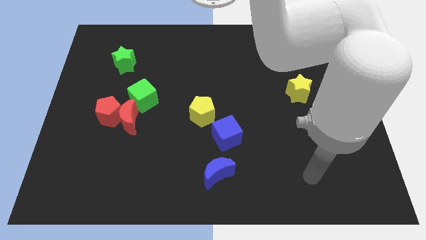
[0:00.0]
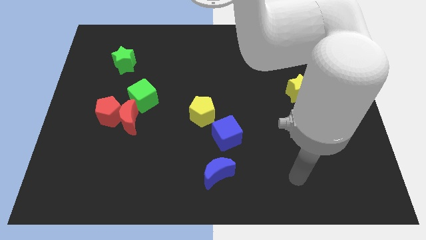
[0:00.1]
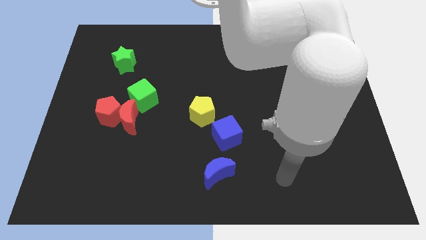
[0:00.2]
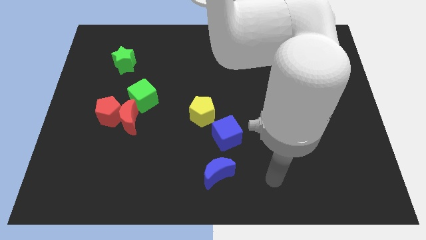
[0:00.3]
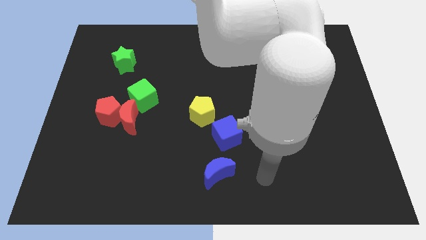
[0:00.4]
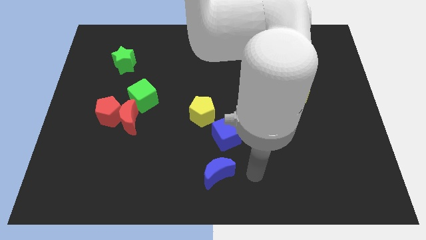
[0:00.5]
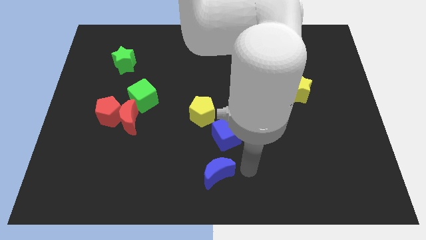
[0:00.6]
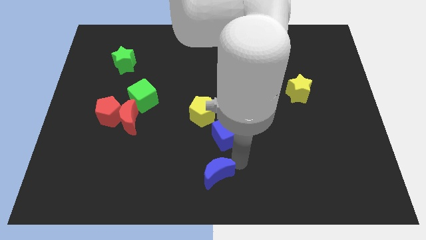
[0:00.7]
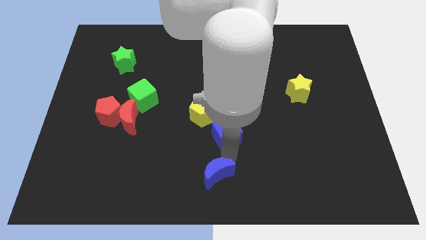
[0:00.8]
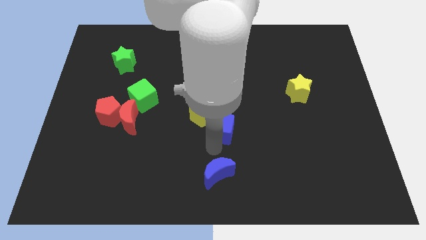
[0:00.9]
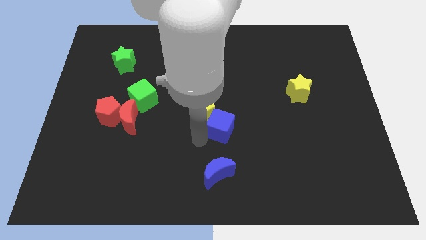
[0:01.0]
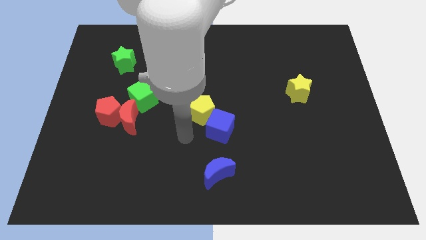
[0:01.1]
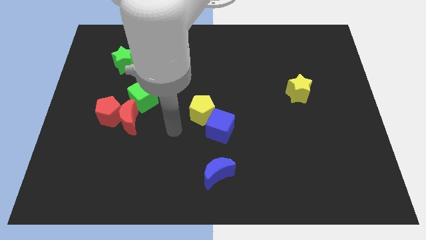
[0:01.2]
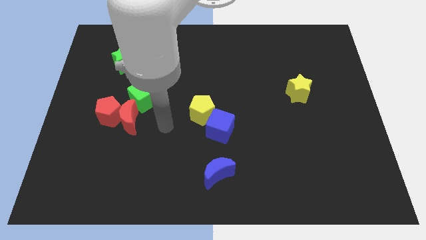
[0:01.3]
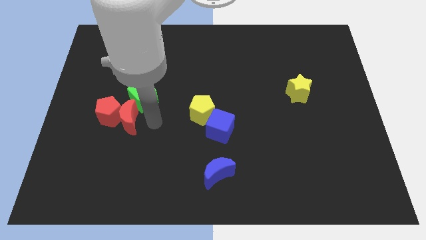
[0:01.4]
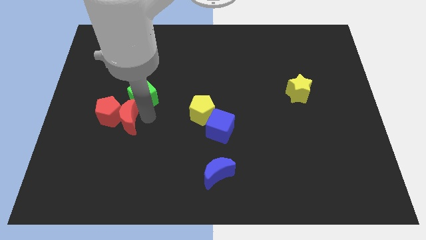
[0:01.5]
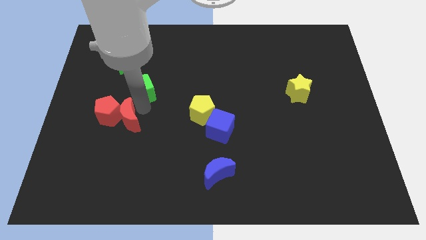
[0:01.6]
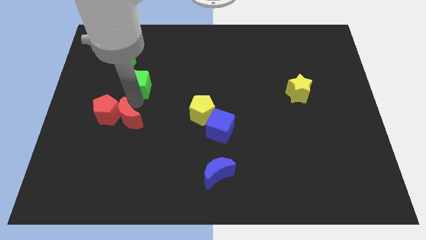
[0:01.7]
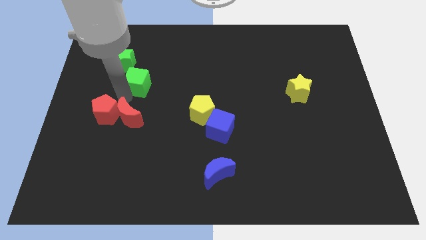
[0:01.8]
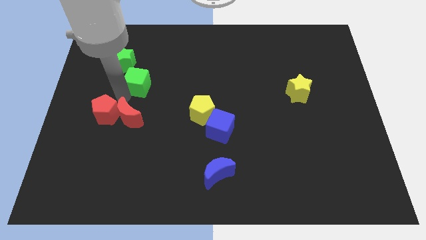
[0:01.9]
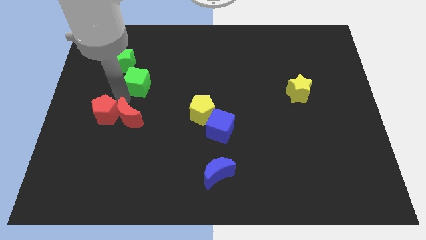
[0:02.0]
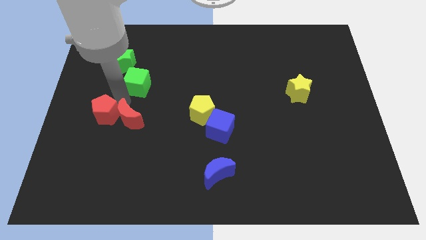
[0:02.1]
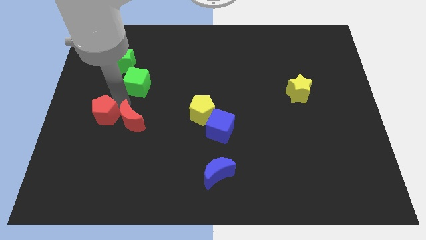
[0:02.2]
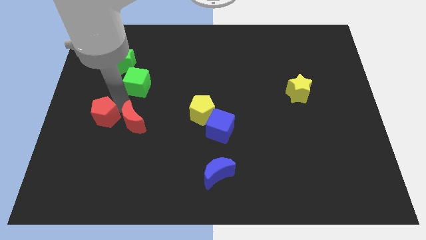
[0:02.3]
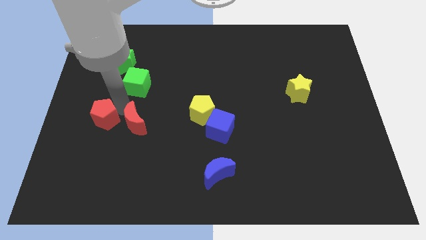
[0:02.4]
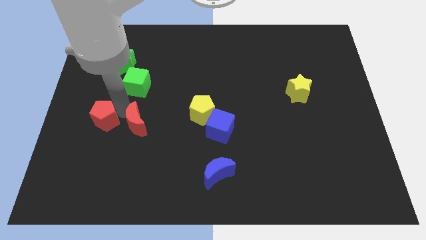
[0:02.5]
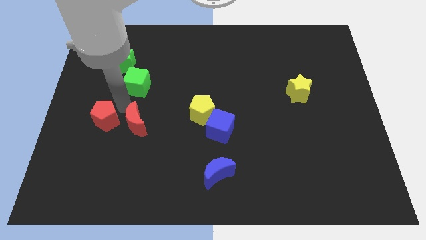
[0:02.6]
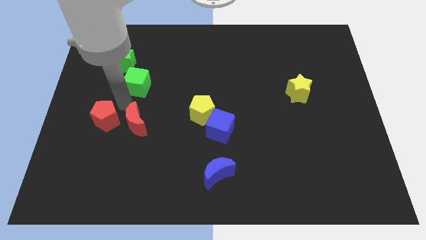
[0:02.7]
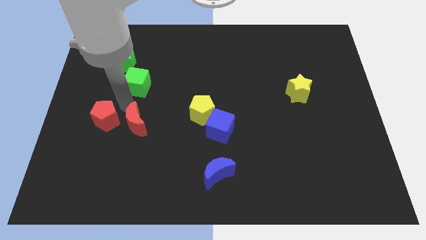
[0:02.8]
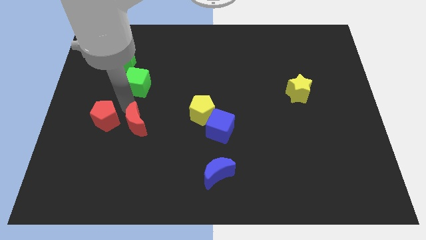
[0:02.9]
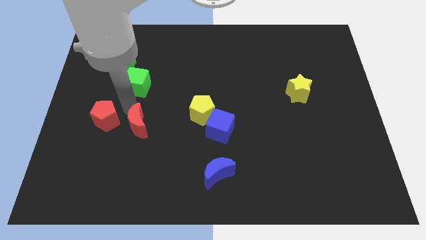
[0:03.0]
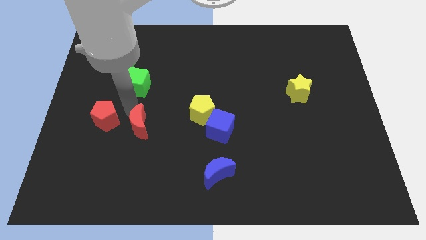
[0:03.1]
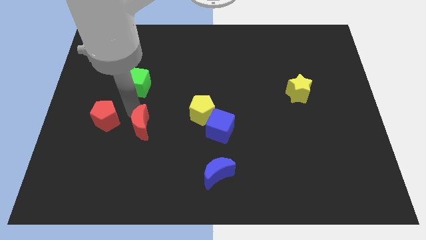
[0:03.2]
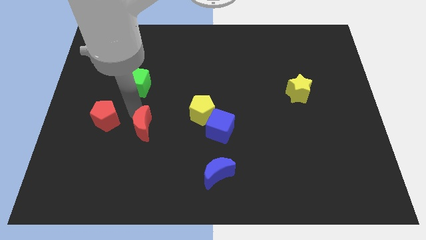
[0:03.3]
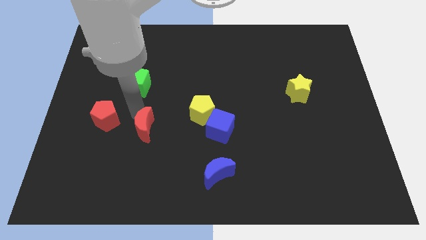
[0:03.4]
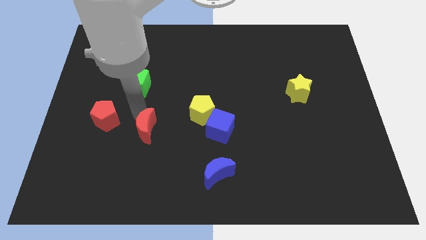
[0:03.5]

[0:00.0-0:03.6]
move the red moon away from the red pentagon and green cube

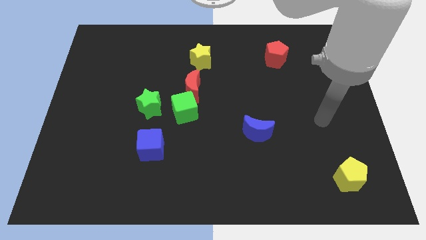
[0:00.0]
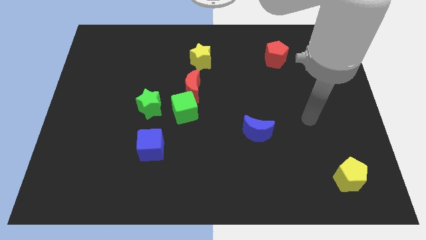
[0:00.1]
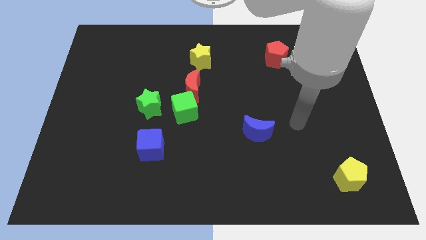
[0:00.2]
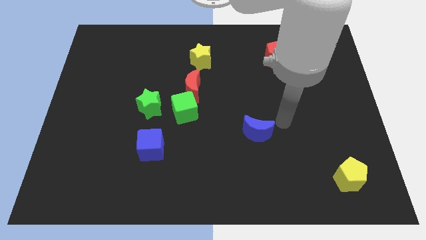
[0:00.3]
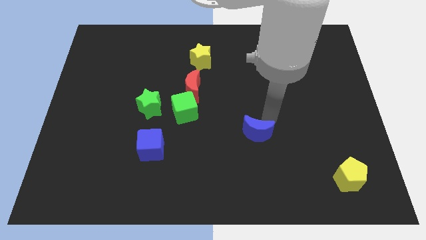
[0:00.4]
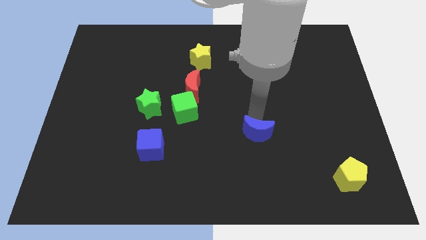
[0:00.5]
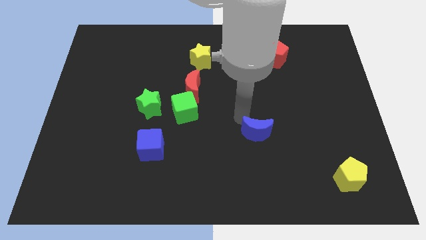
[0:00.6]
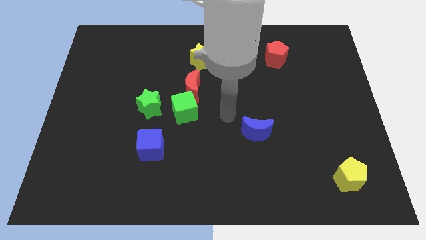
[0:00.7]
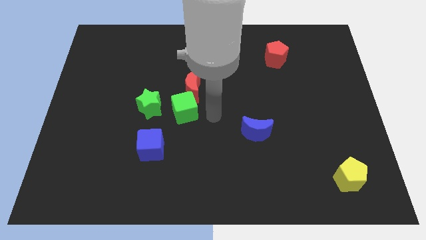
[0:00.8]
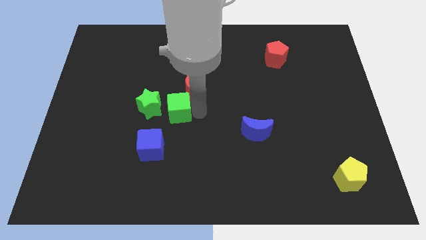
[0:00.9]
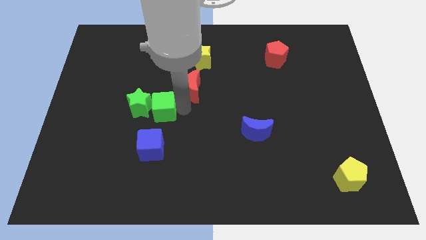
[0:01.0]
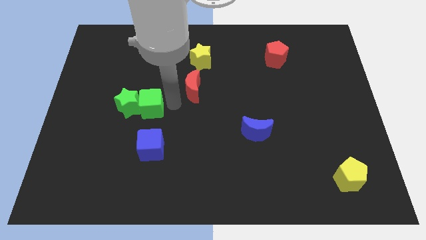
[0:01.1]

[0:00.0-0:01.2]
move the red moon away from the green cube

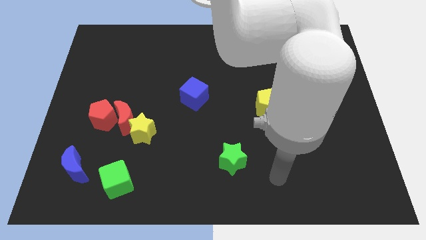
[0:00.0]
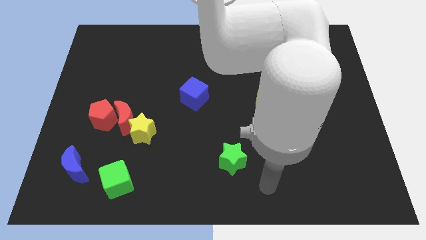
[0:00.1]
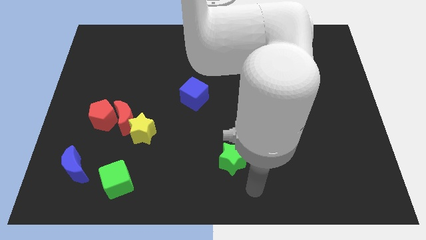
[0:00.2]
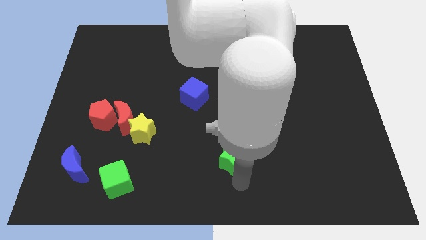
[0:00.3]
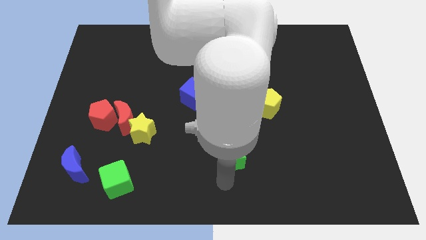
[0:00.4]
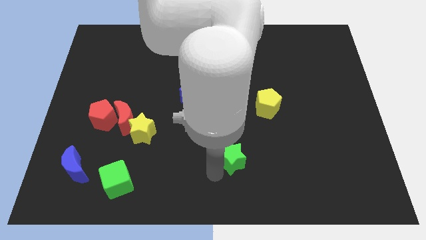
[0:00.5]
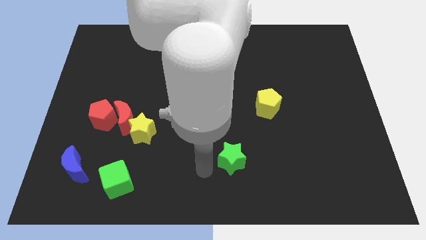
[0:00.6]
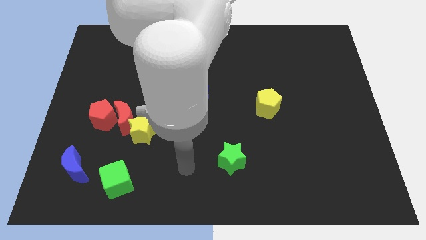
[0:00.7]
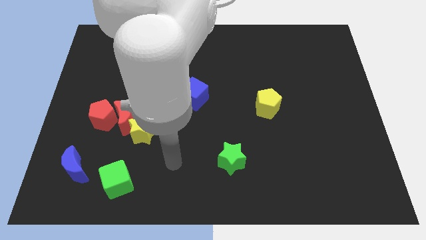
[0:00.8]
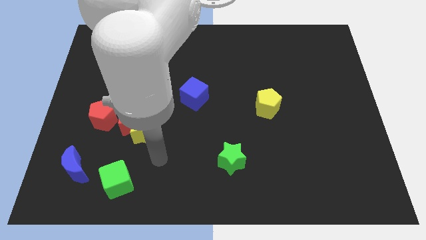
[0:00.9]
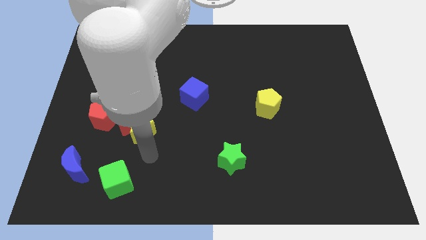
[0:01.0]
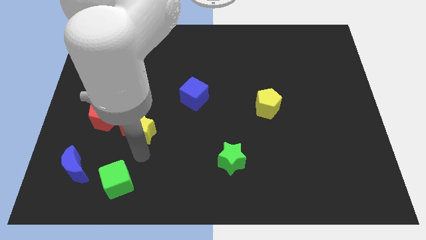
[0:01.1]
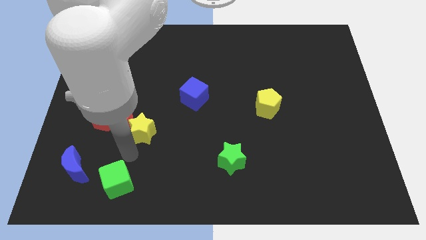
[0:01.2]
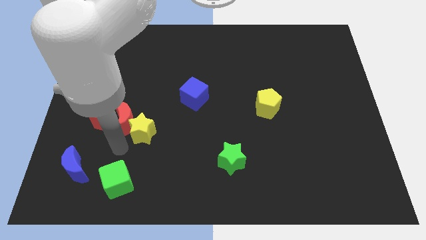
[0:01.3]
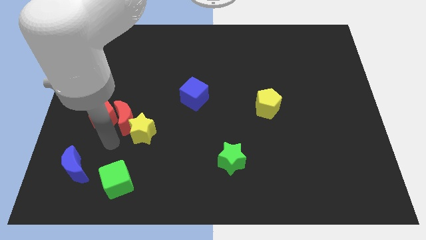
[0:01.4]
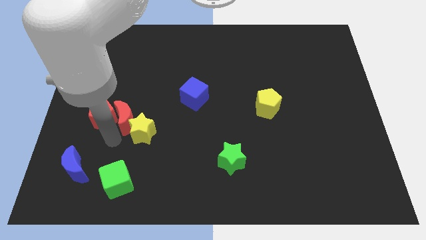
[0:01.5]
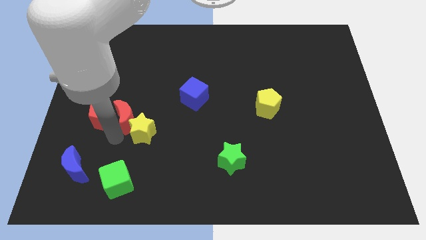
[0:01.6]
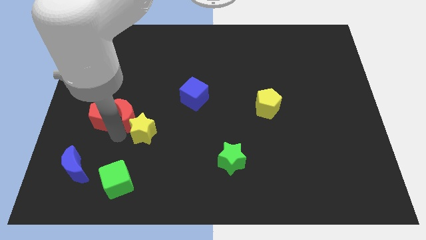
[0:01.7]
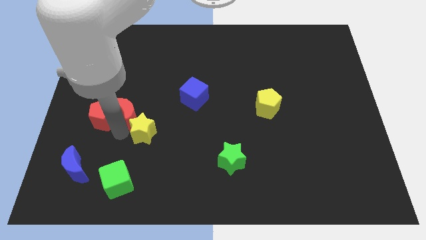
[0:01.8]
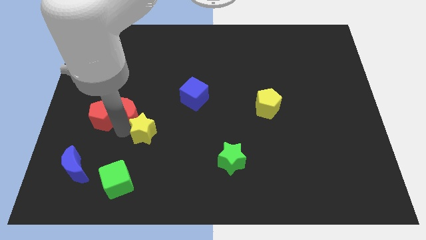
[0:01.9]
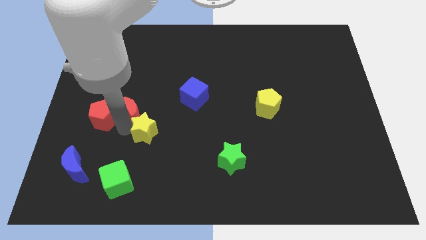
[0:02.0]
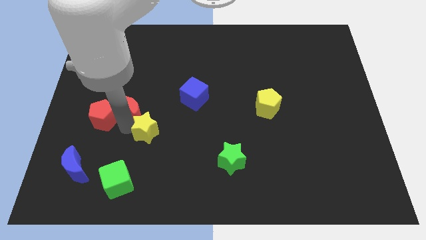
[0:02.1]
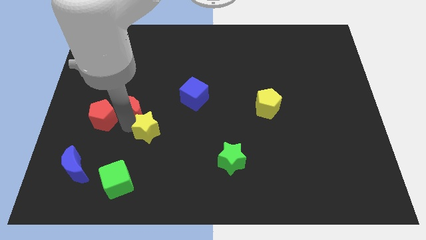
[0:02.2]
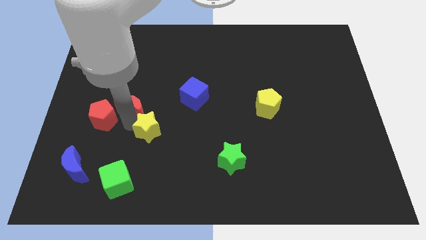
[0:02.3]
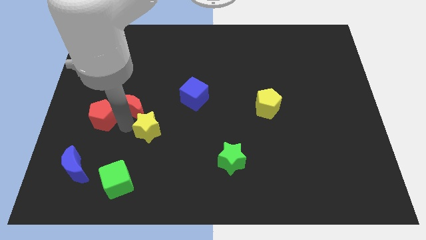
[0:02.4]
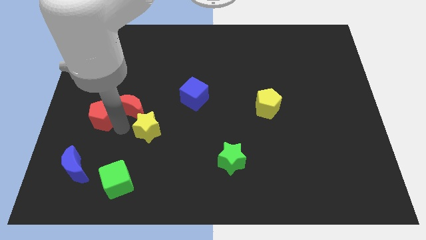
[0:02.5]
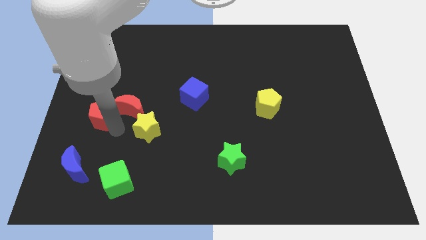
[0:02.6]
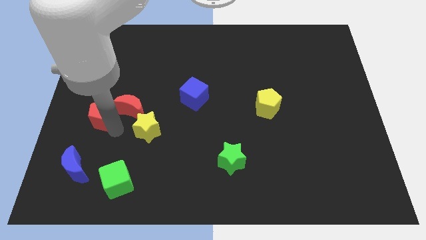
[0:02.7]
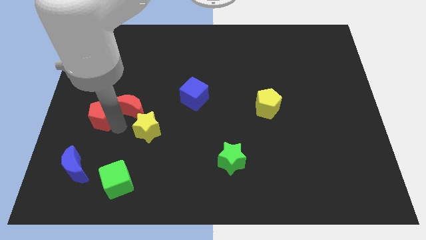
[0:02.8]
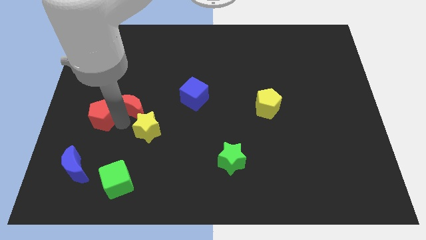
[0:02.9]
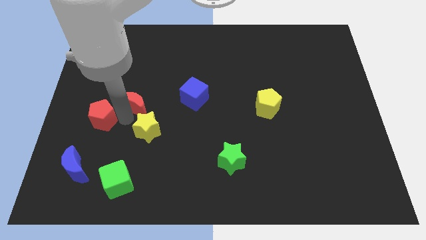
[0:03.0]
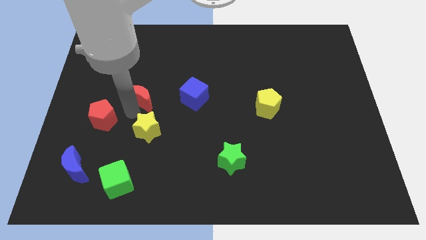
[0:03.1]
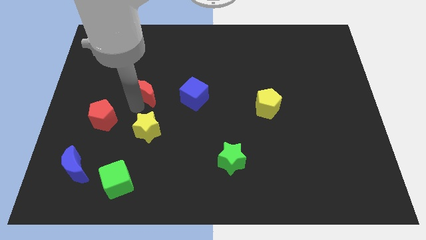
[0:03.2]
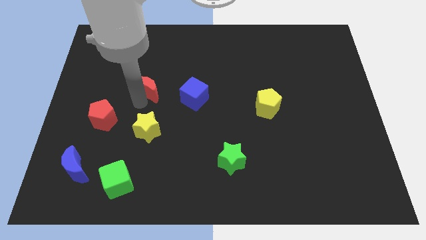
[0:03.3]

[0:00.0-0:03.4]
pull the red moon apart from the yellow star and red pentagon

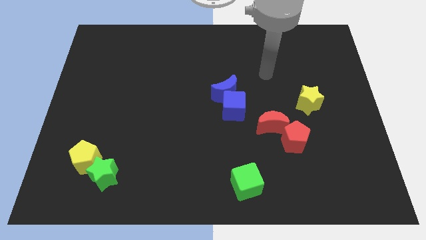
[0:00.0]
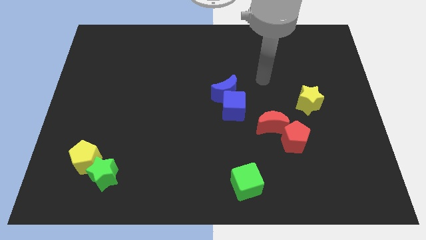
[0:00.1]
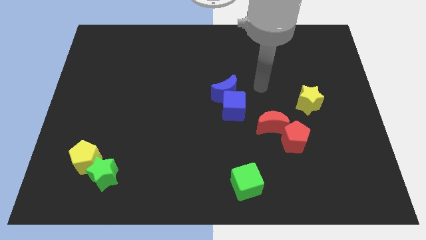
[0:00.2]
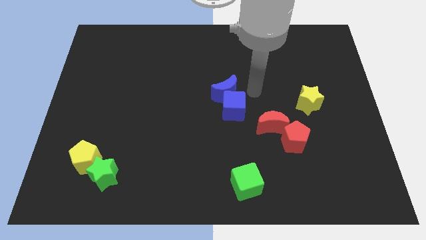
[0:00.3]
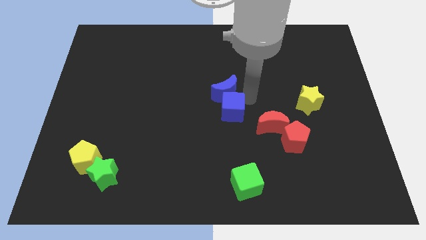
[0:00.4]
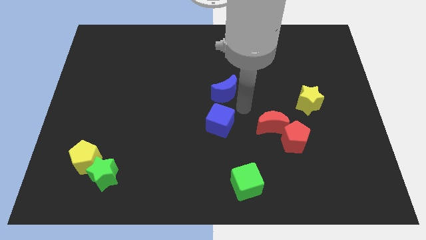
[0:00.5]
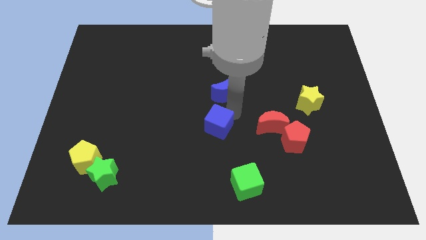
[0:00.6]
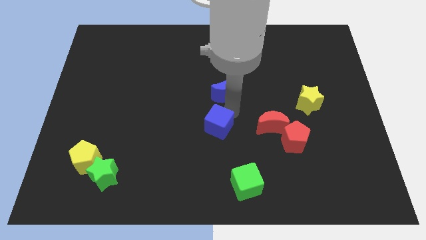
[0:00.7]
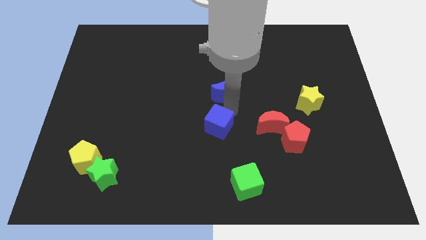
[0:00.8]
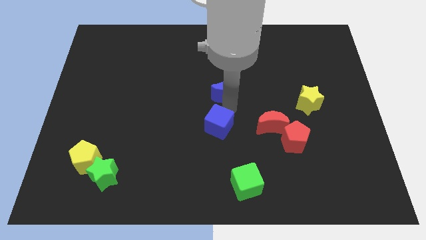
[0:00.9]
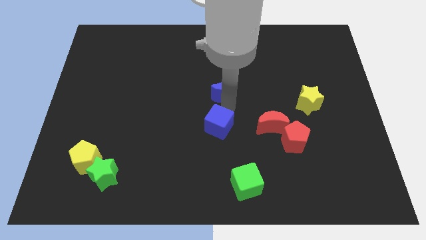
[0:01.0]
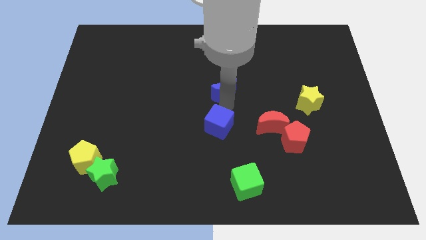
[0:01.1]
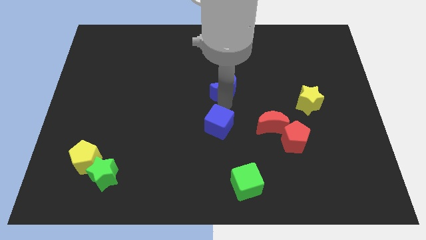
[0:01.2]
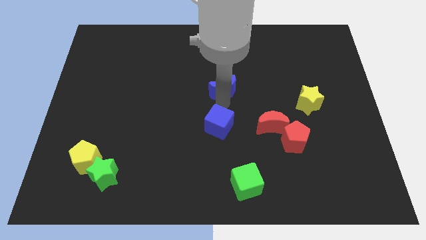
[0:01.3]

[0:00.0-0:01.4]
move the blue moon away from the blue cube
